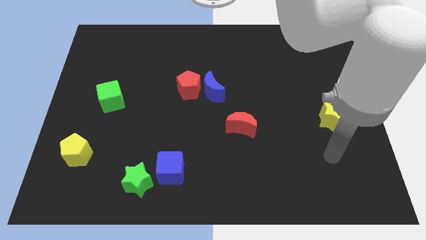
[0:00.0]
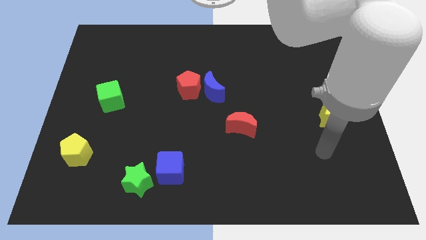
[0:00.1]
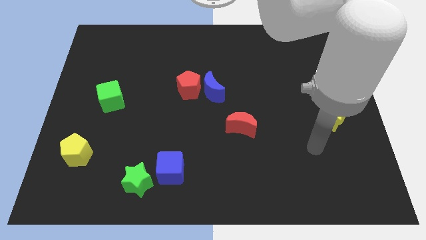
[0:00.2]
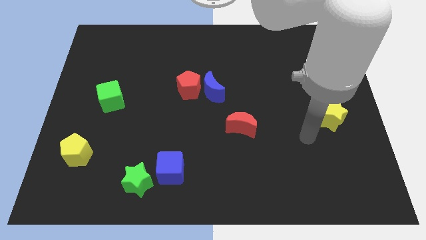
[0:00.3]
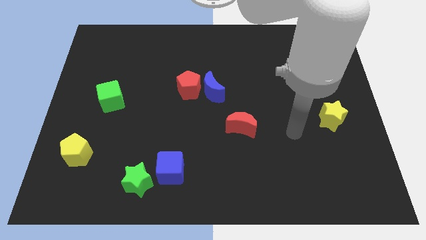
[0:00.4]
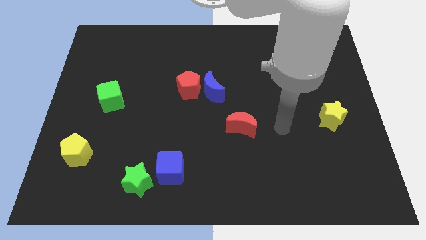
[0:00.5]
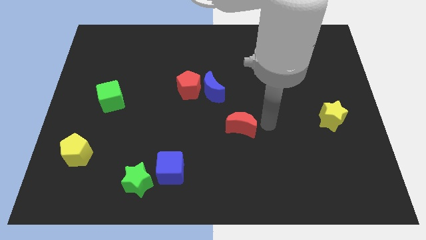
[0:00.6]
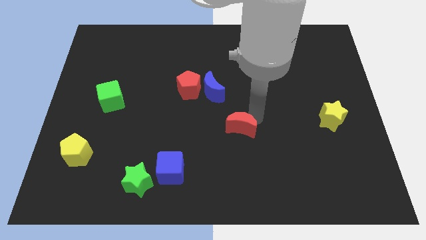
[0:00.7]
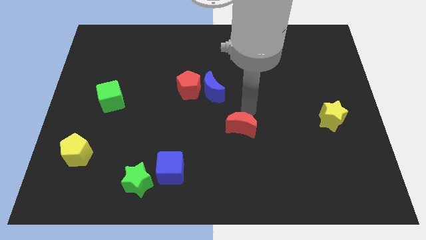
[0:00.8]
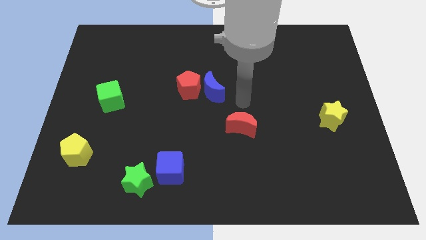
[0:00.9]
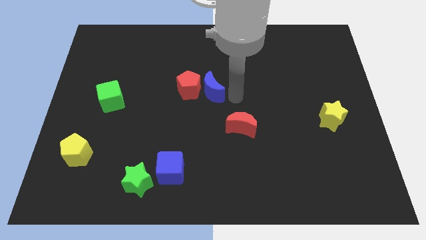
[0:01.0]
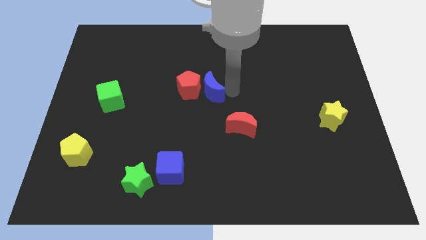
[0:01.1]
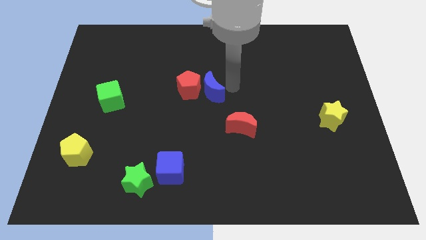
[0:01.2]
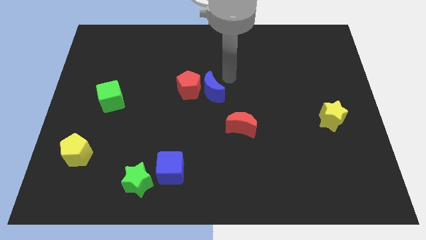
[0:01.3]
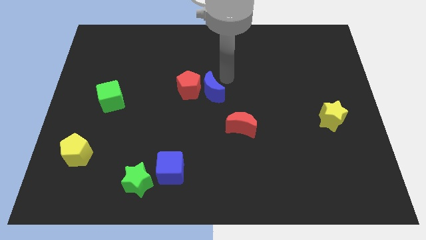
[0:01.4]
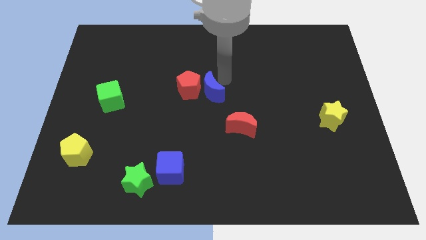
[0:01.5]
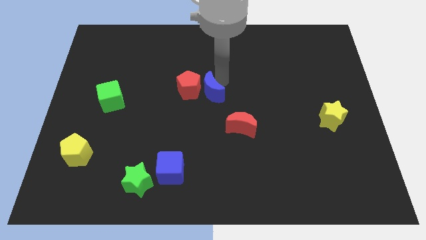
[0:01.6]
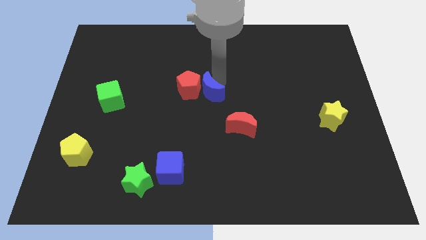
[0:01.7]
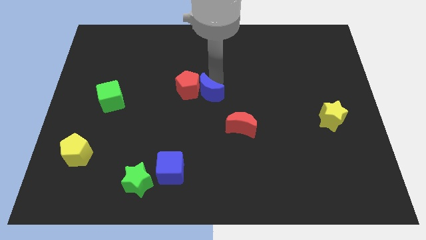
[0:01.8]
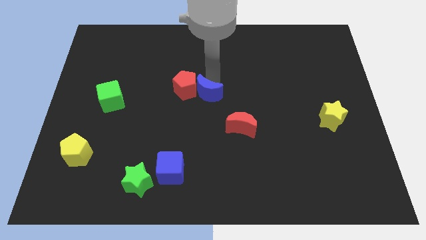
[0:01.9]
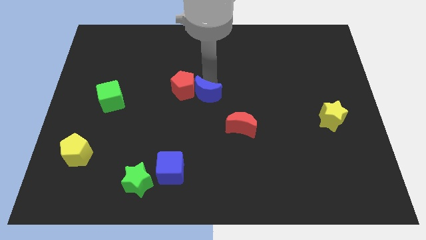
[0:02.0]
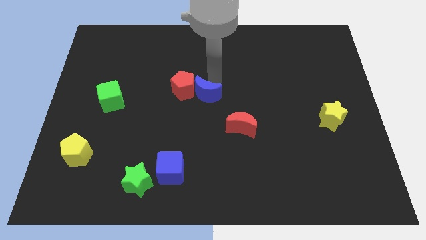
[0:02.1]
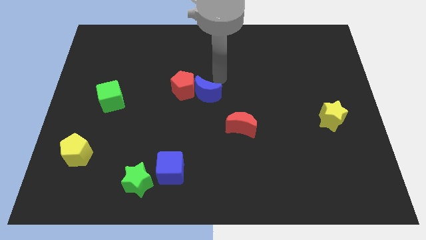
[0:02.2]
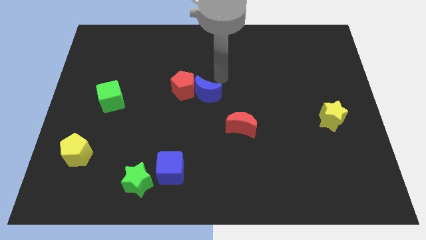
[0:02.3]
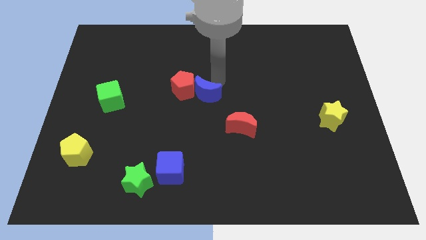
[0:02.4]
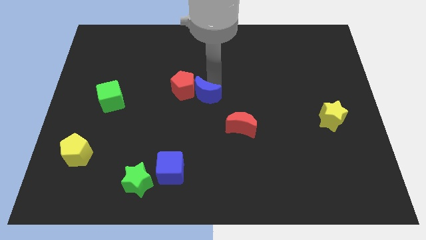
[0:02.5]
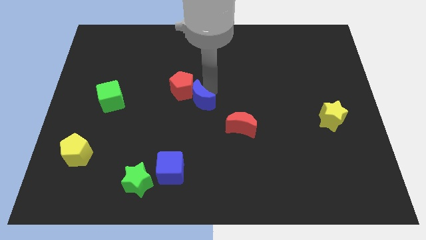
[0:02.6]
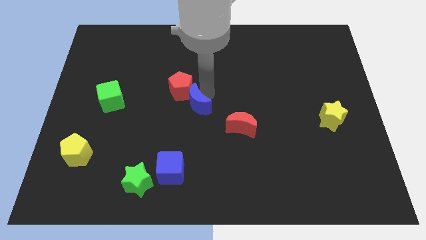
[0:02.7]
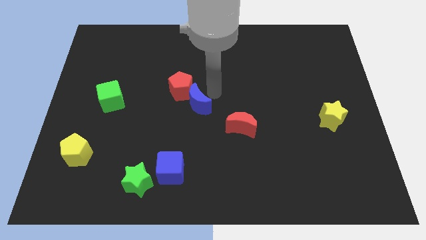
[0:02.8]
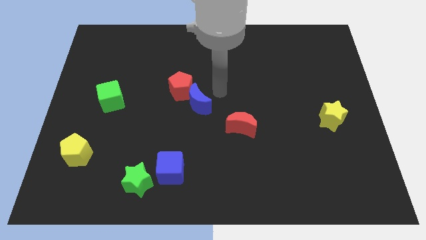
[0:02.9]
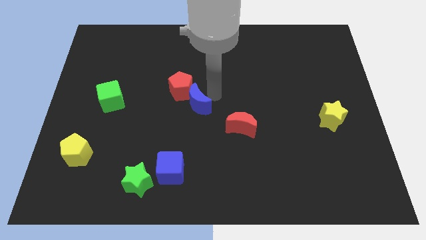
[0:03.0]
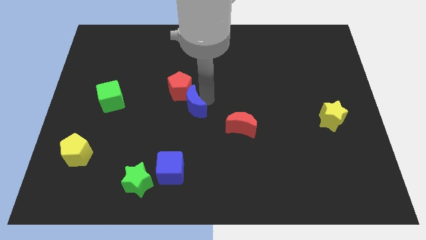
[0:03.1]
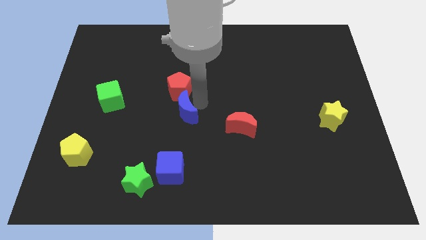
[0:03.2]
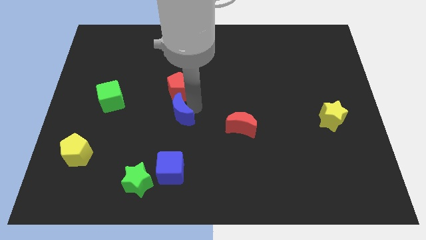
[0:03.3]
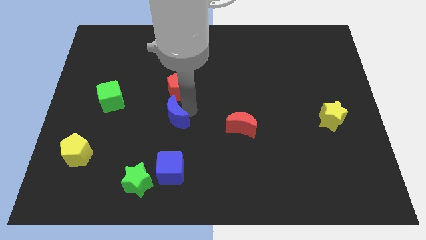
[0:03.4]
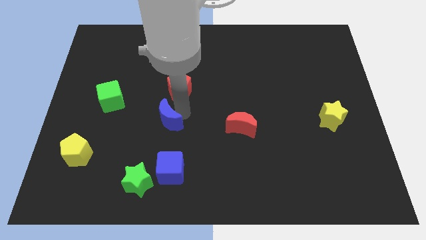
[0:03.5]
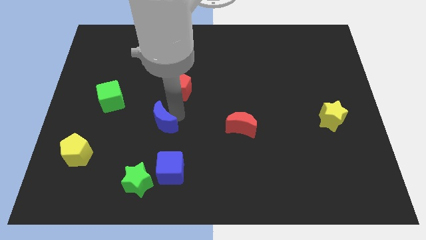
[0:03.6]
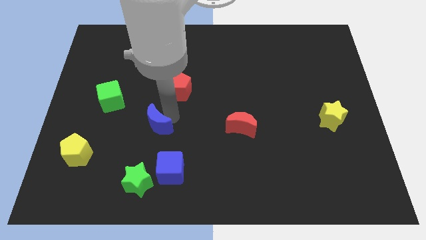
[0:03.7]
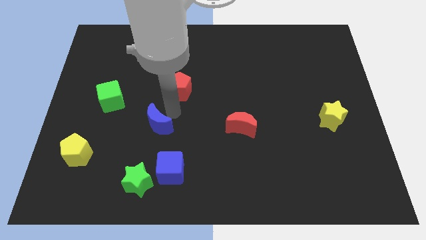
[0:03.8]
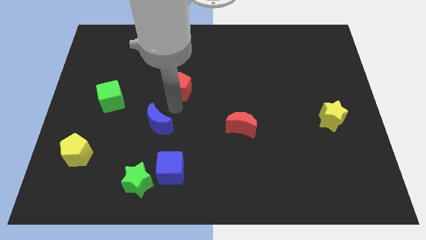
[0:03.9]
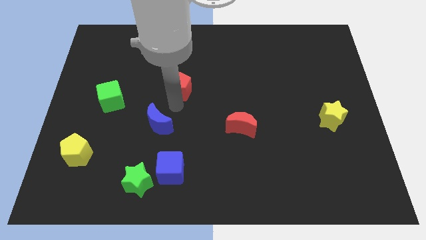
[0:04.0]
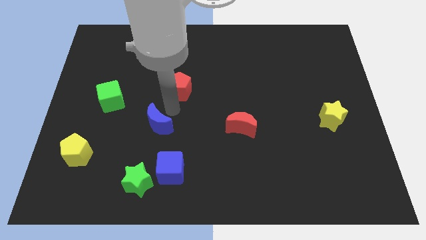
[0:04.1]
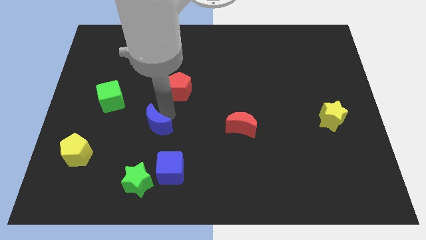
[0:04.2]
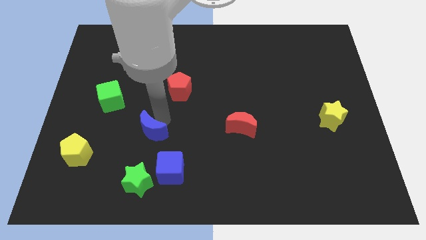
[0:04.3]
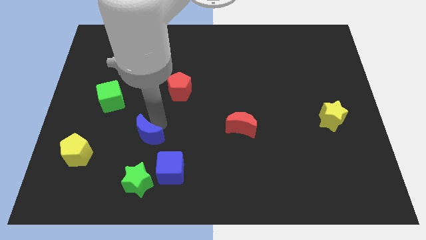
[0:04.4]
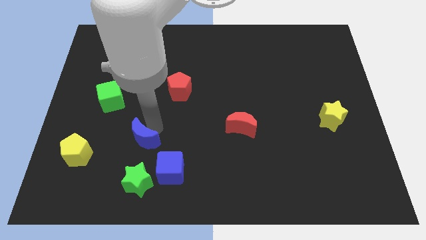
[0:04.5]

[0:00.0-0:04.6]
slide the blue moon down and left

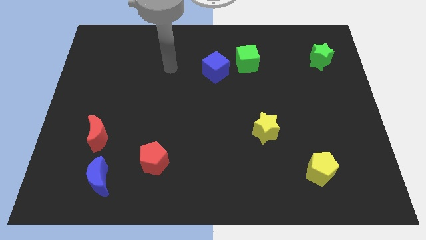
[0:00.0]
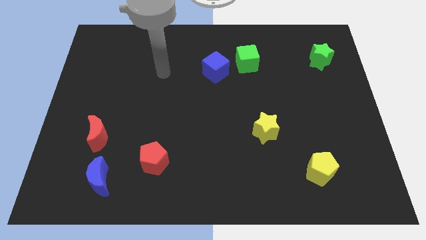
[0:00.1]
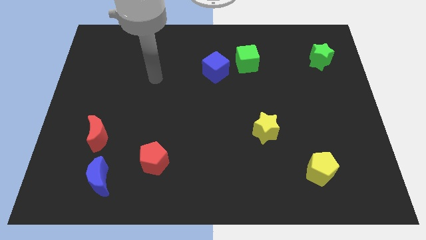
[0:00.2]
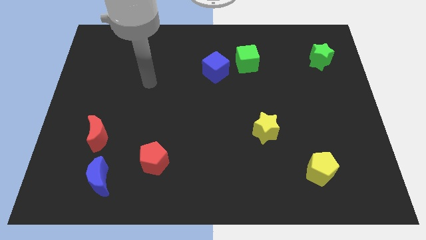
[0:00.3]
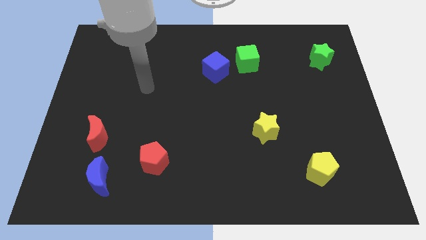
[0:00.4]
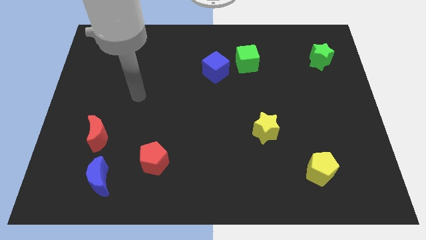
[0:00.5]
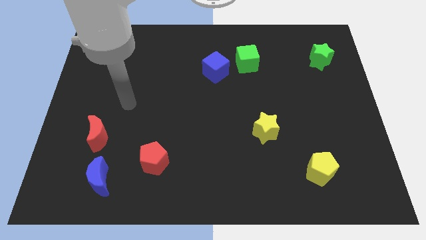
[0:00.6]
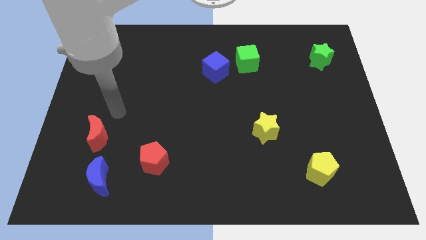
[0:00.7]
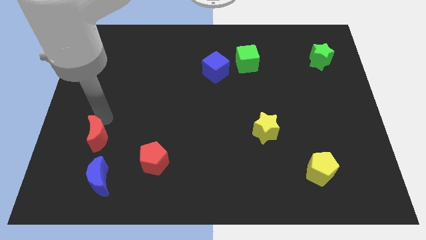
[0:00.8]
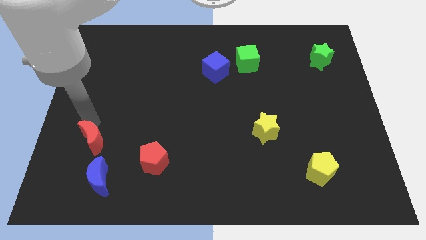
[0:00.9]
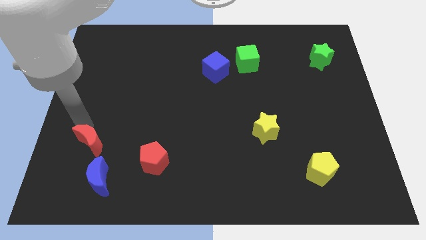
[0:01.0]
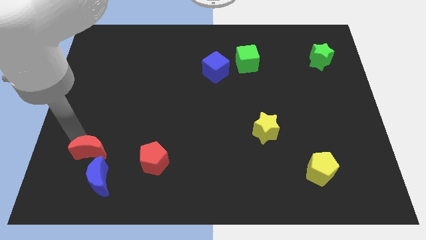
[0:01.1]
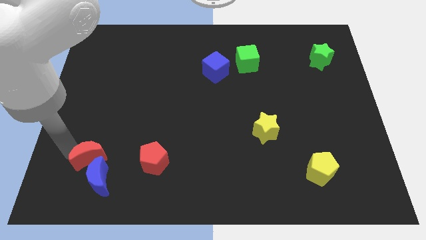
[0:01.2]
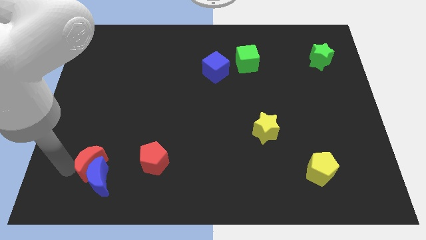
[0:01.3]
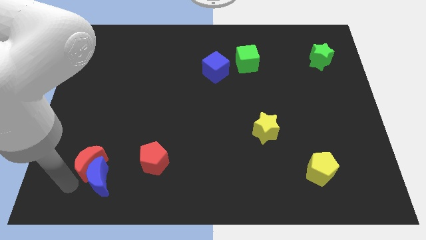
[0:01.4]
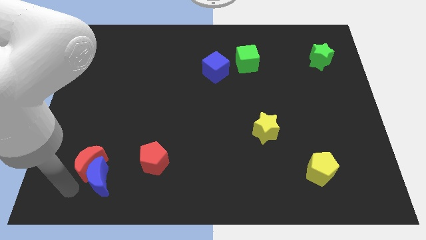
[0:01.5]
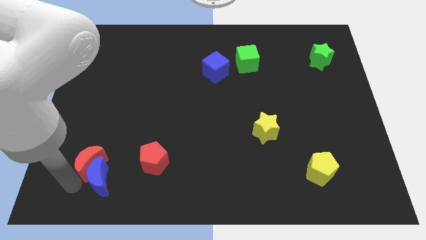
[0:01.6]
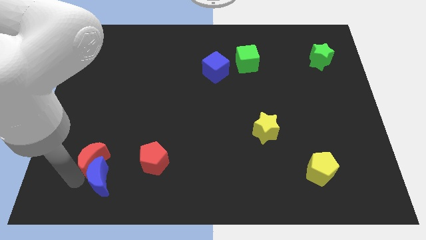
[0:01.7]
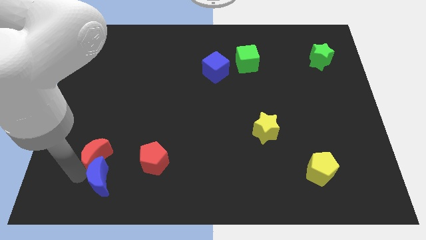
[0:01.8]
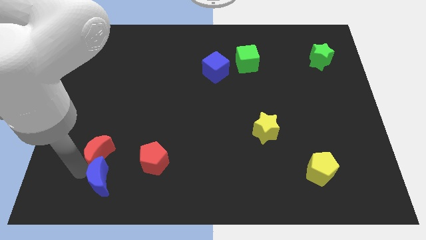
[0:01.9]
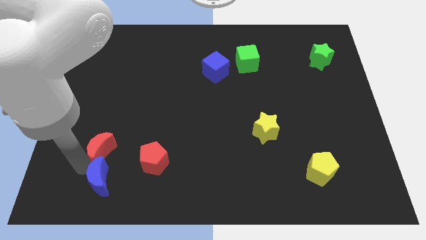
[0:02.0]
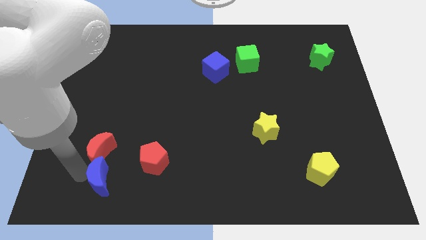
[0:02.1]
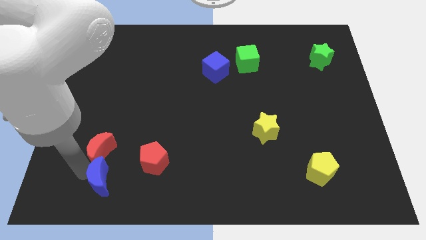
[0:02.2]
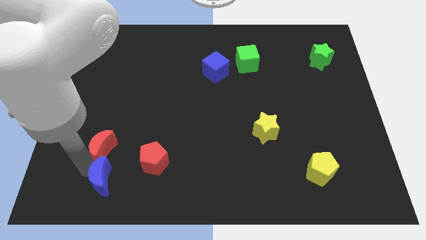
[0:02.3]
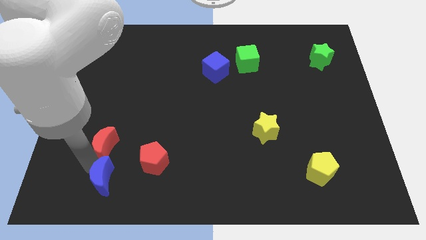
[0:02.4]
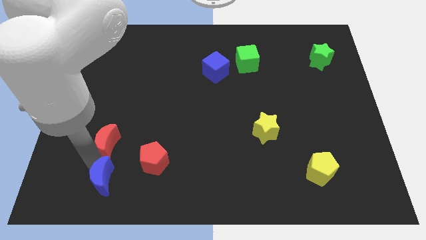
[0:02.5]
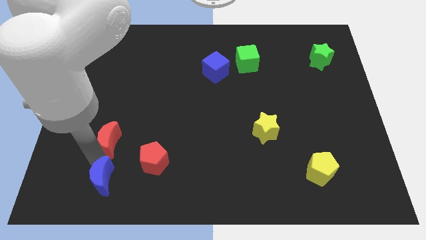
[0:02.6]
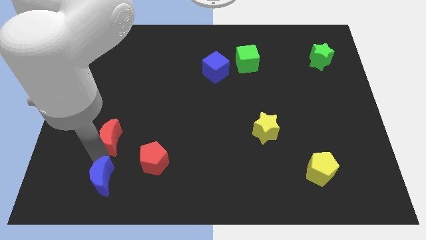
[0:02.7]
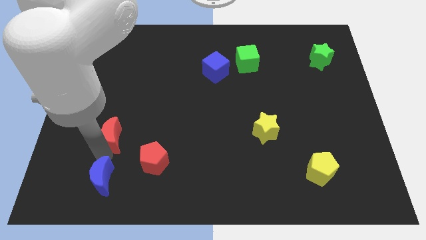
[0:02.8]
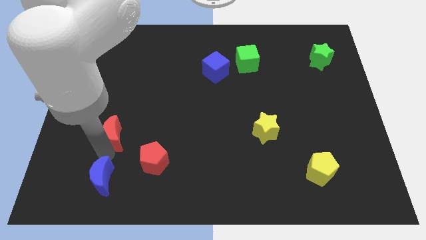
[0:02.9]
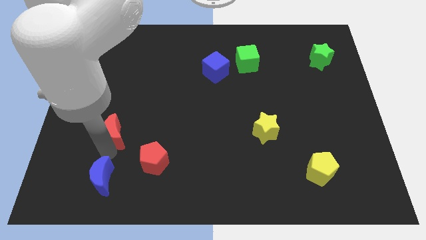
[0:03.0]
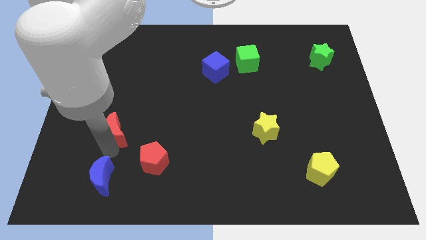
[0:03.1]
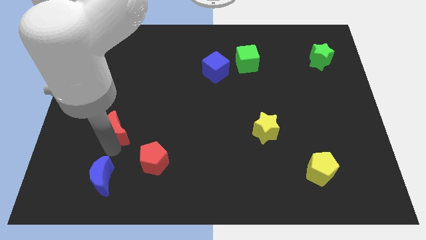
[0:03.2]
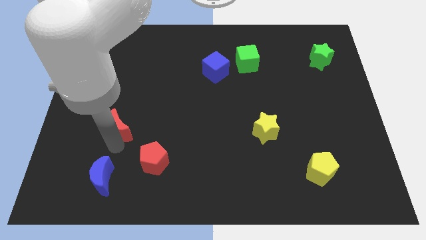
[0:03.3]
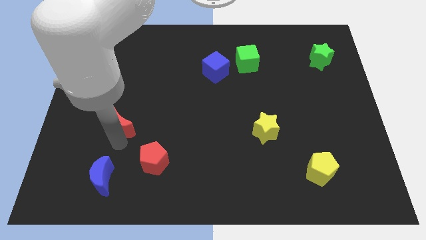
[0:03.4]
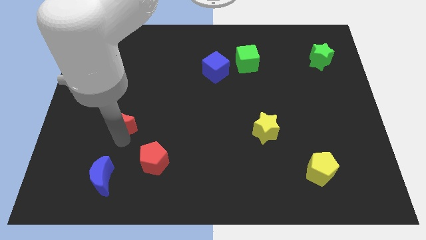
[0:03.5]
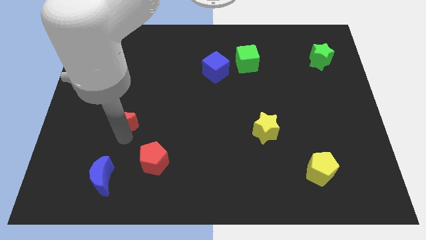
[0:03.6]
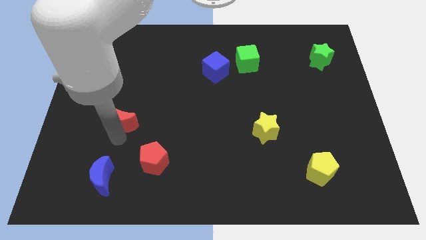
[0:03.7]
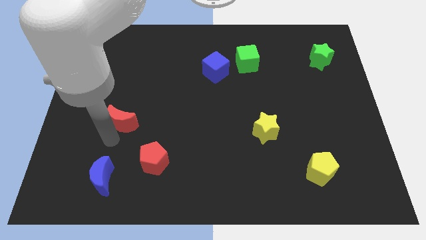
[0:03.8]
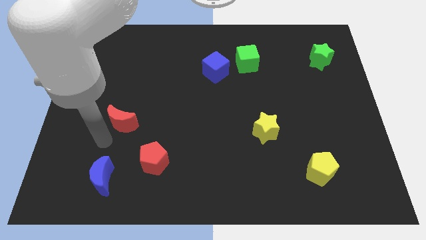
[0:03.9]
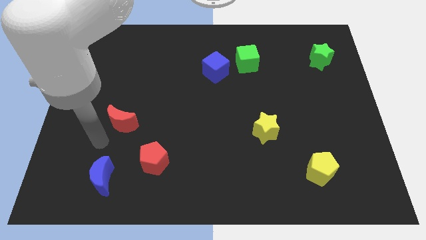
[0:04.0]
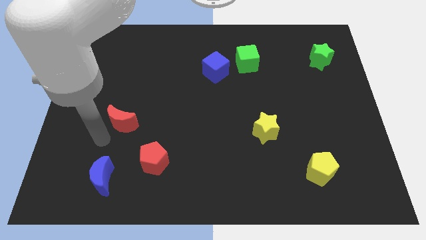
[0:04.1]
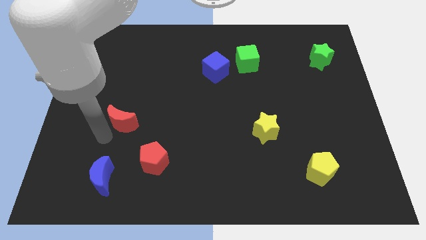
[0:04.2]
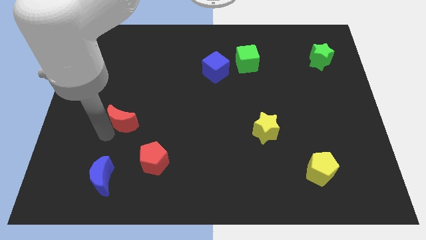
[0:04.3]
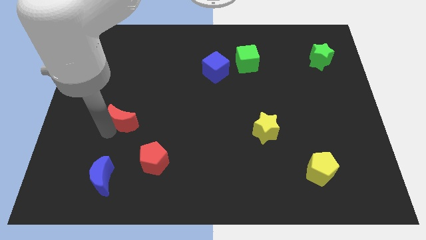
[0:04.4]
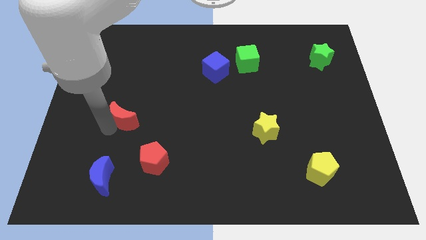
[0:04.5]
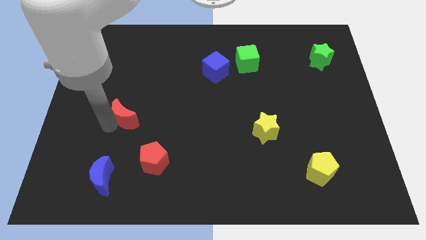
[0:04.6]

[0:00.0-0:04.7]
slide the red moon diagonally upwards and right a little
